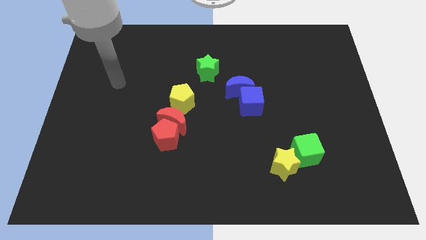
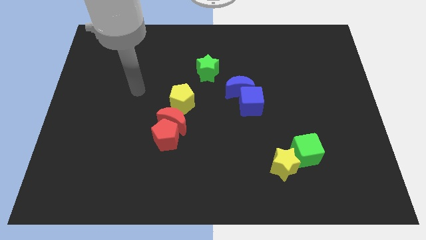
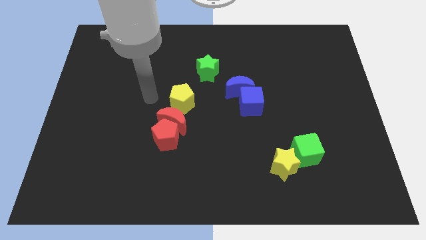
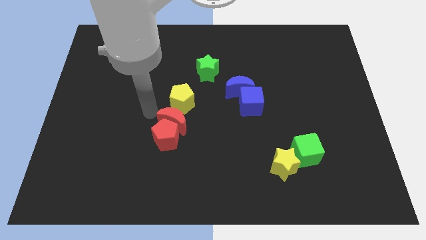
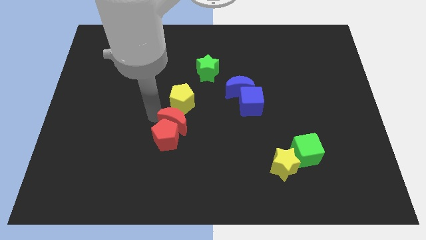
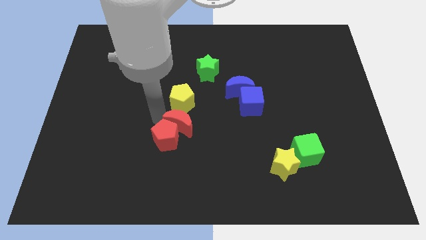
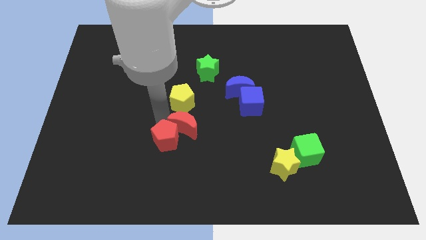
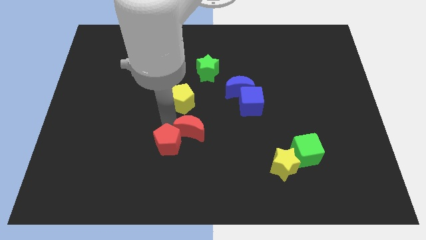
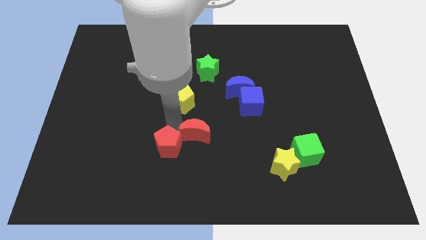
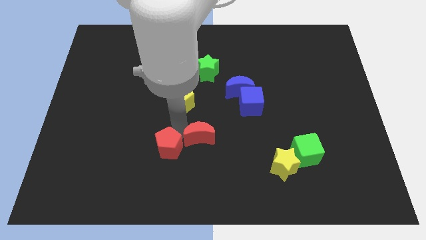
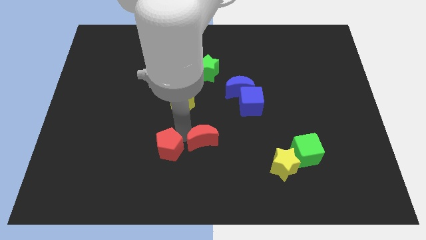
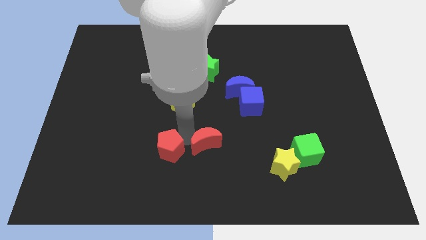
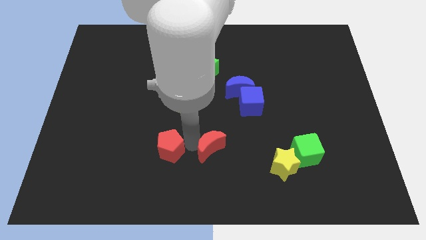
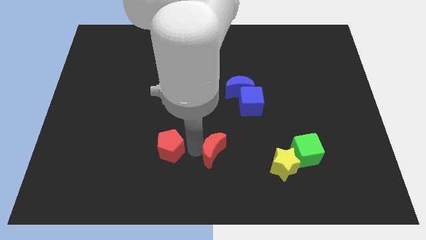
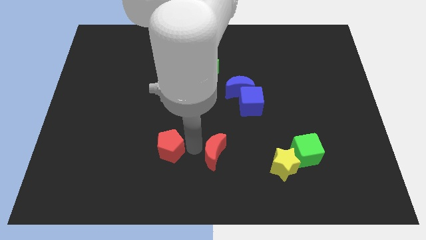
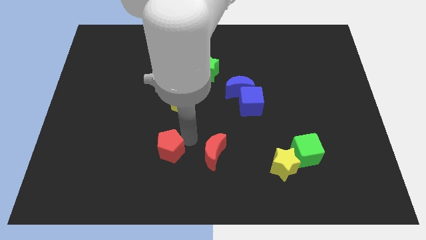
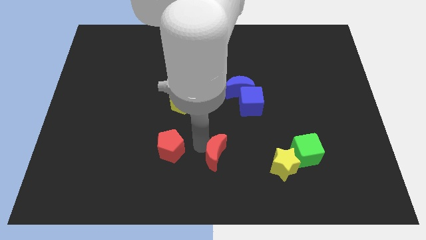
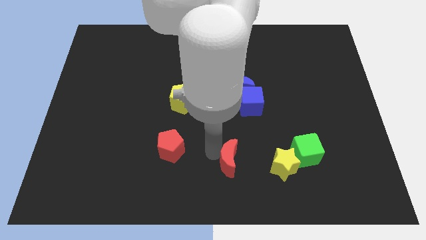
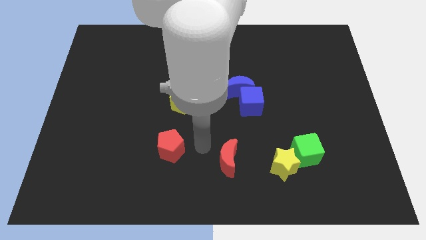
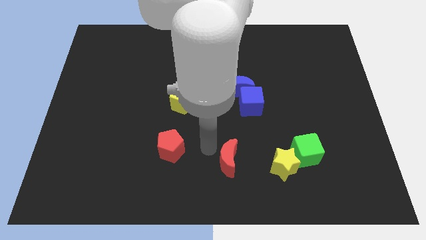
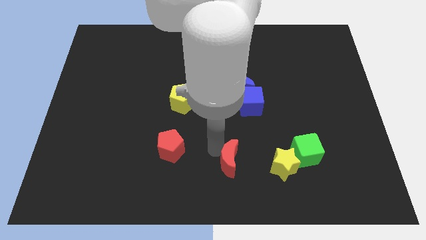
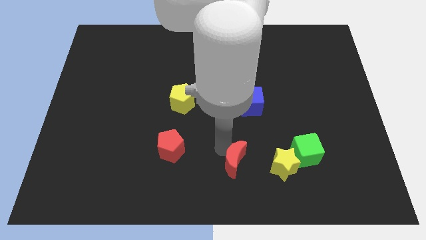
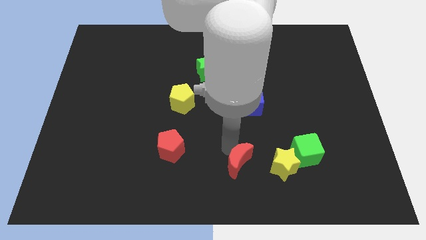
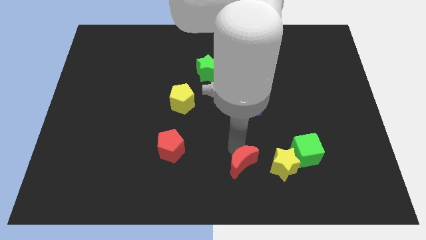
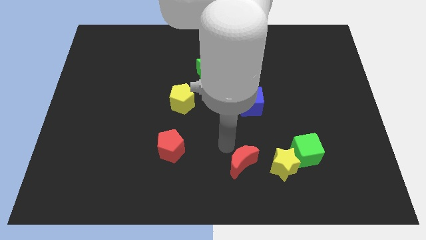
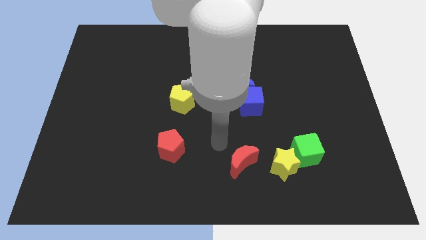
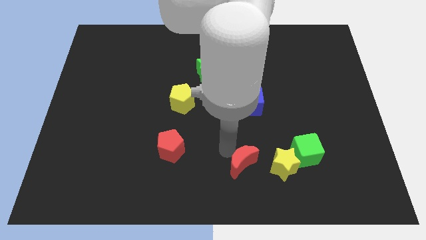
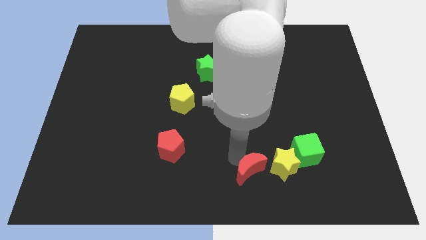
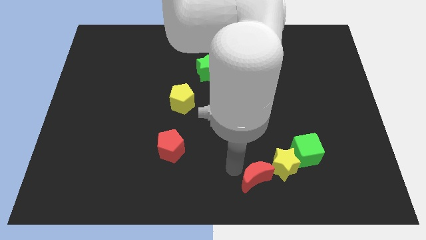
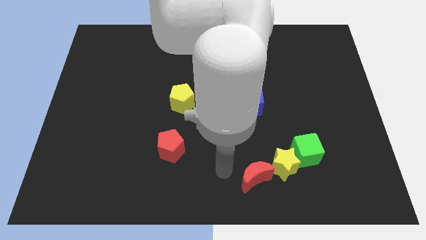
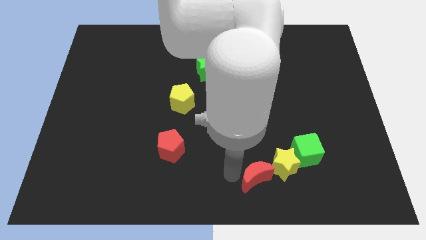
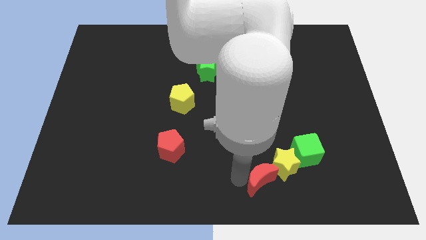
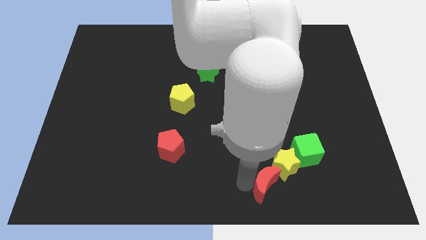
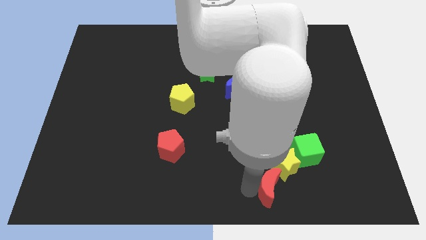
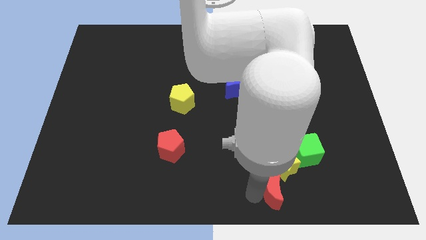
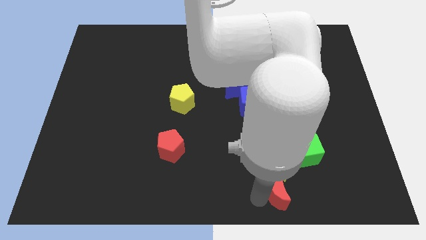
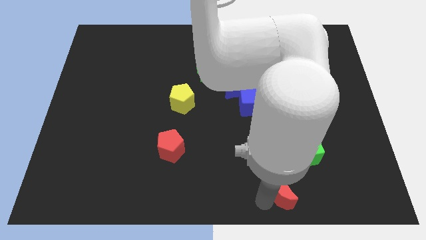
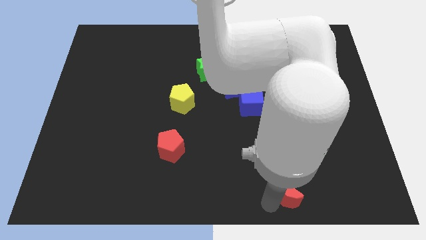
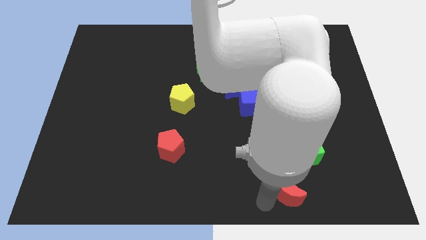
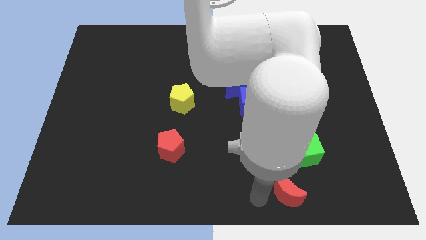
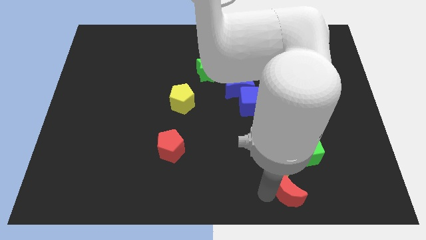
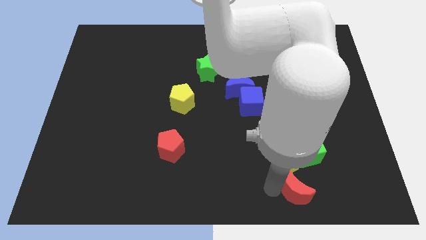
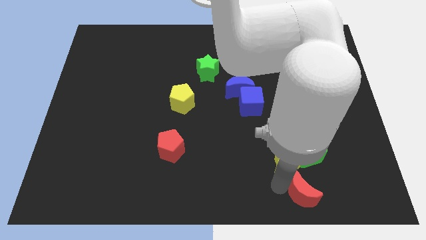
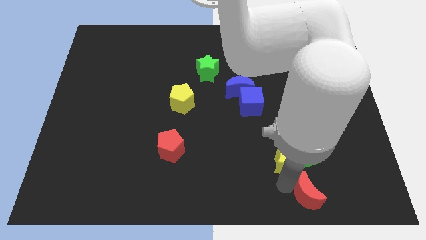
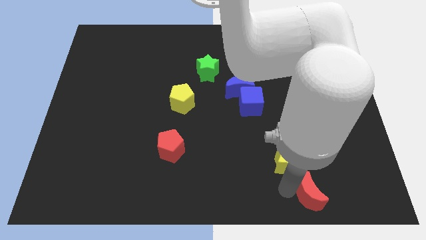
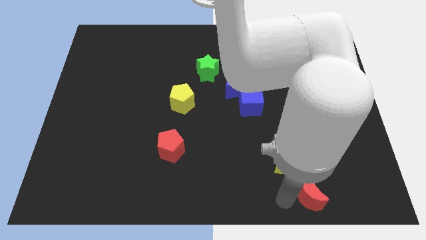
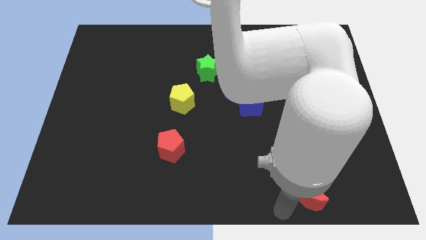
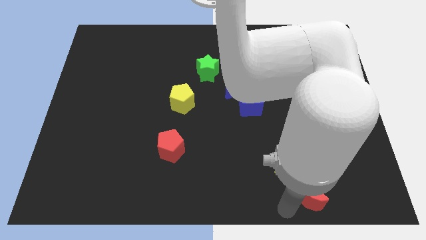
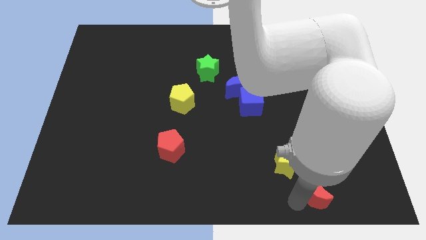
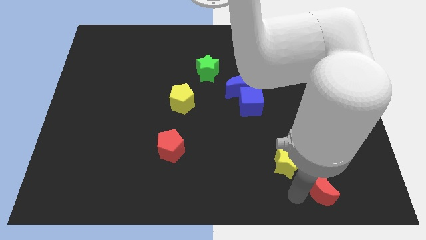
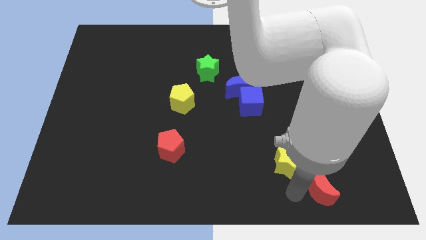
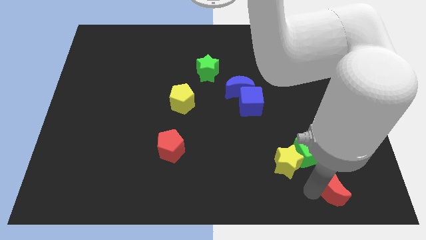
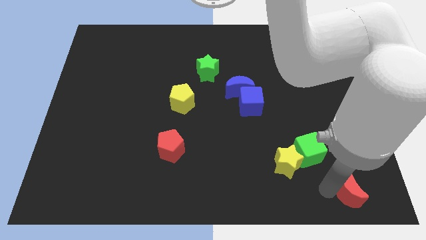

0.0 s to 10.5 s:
push the red moon to the bottom right

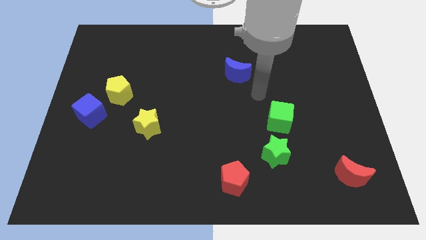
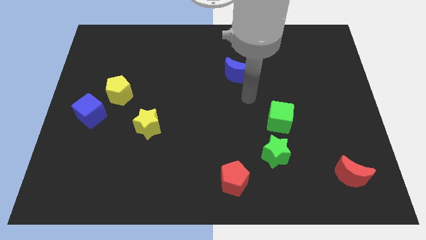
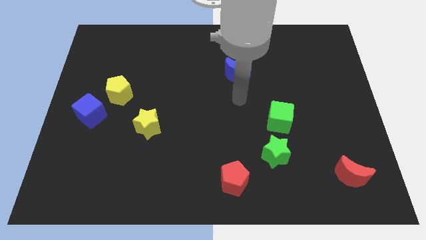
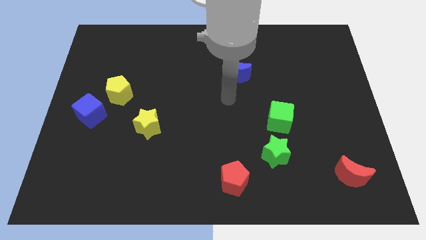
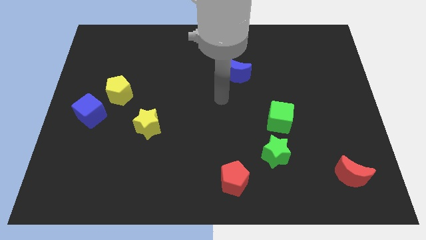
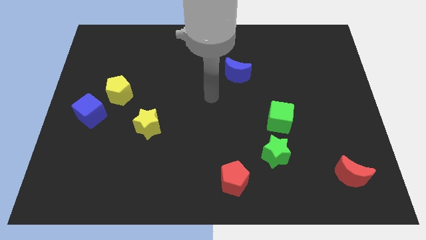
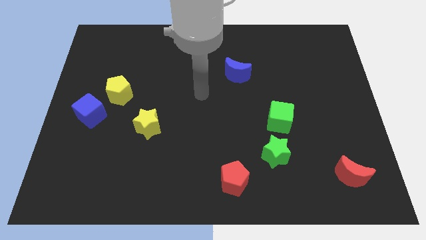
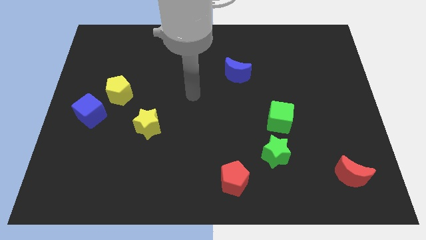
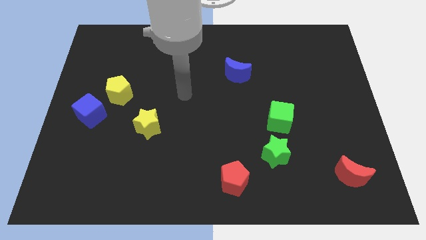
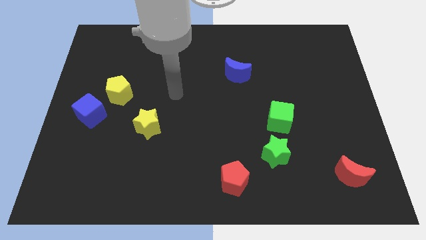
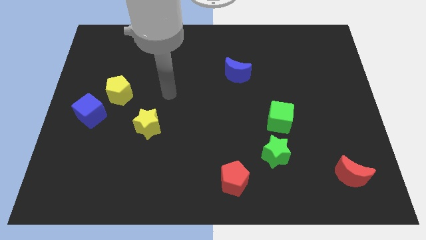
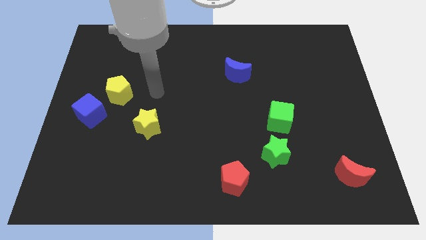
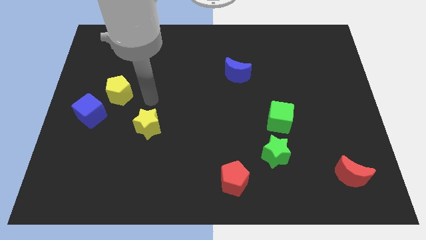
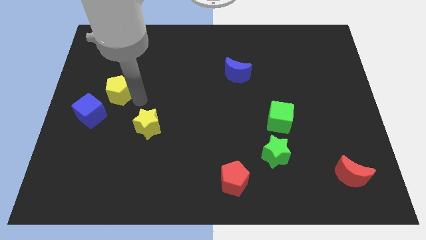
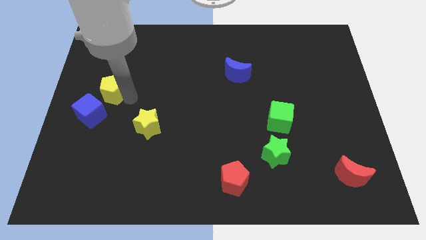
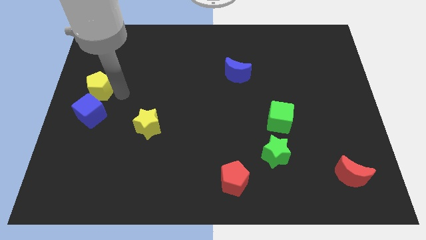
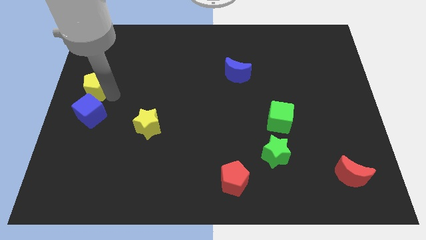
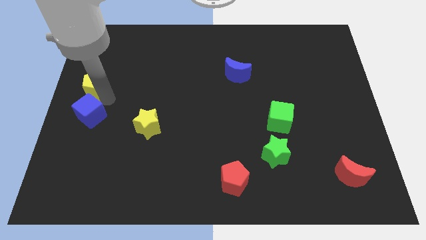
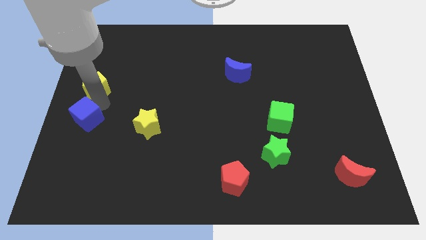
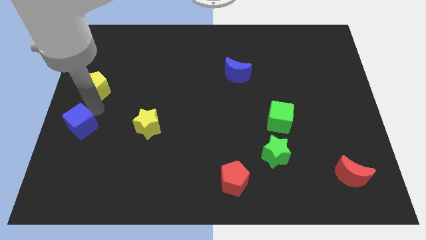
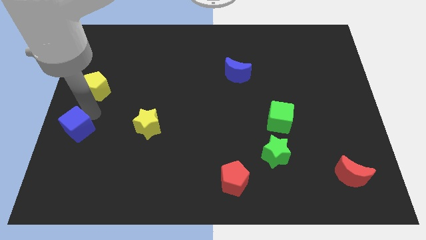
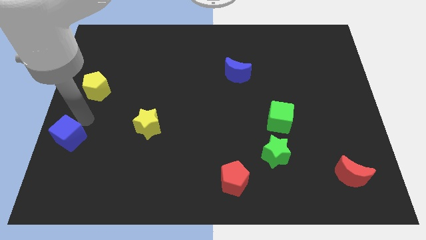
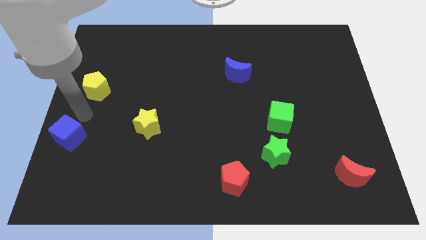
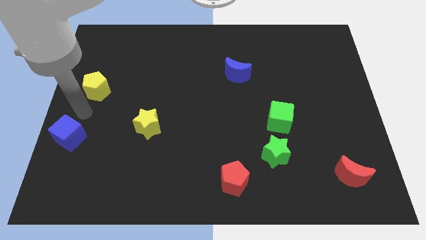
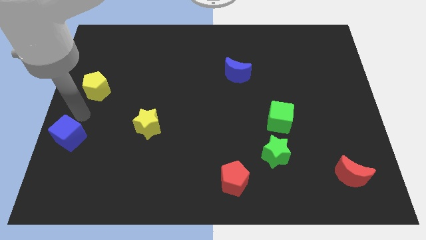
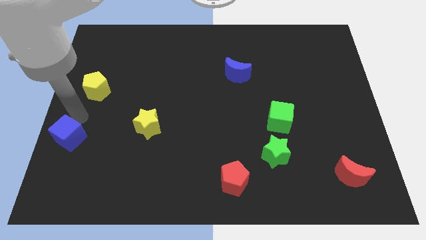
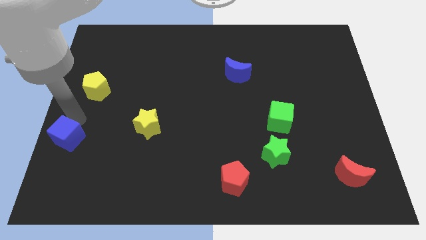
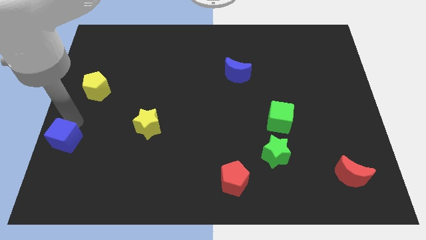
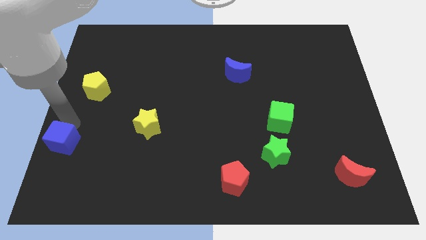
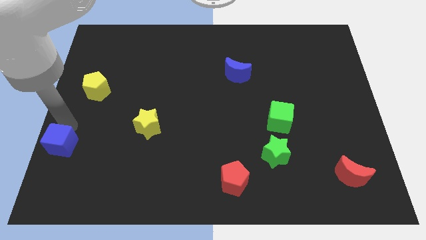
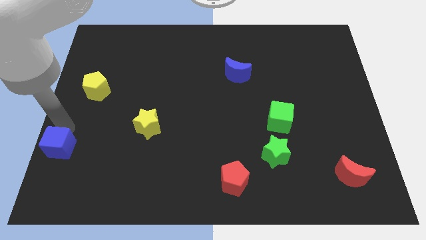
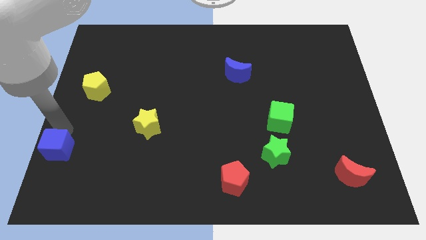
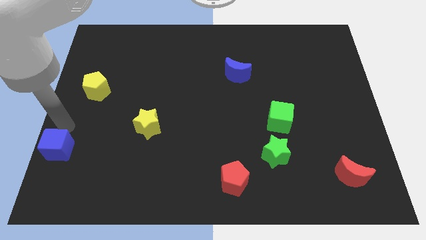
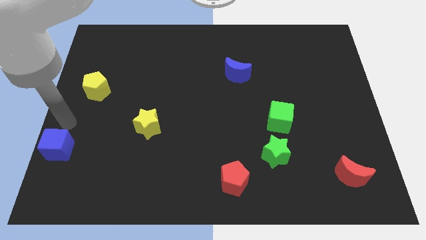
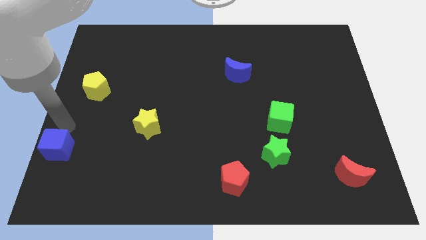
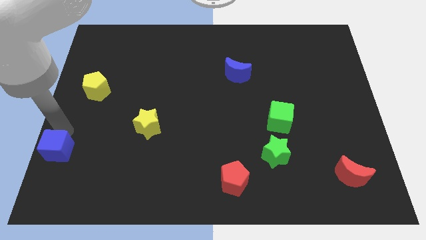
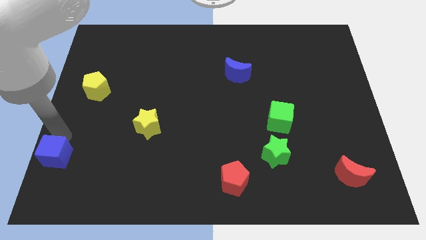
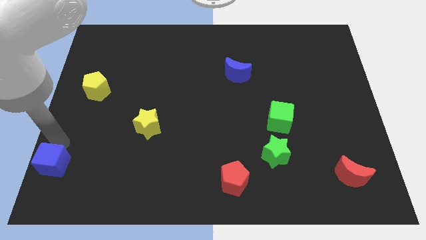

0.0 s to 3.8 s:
move the blue cube to the bottom left of the board
